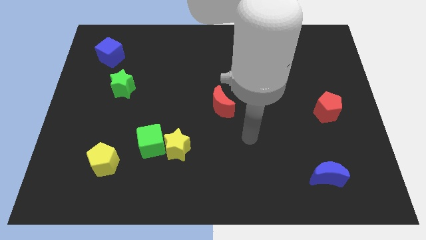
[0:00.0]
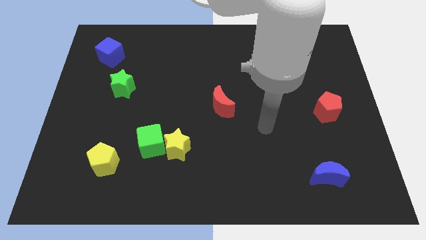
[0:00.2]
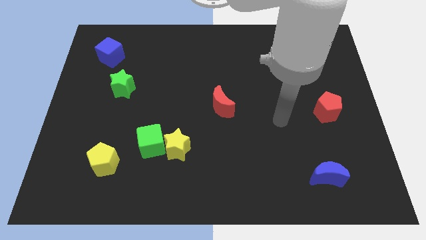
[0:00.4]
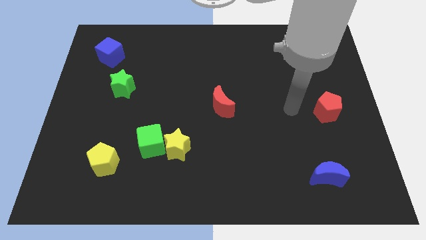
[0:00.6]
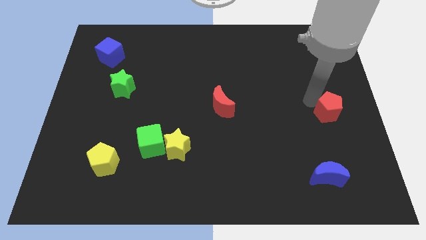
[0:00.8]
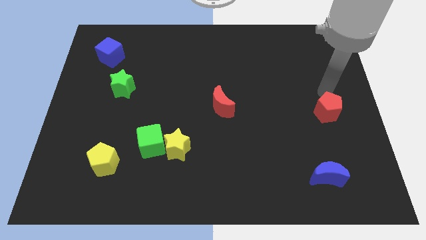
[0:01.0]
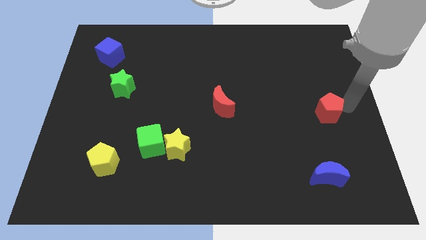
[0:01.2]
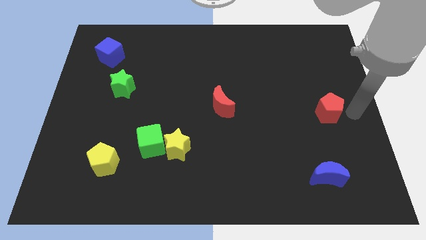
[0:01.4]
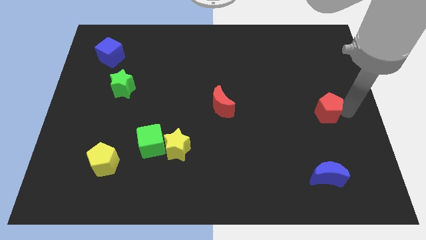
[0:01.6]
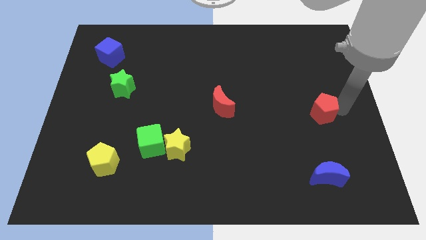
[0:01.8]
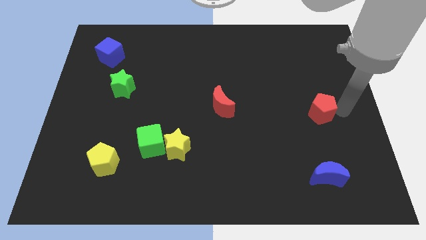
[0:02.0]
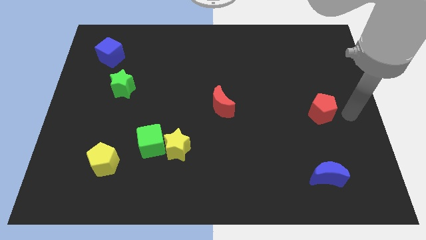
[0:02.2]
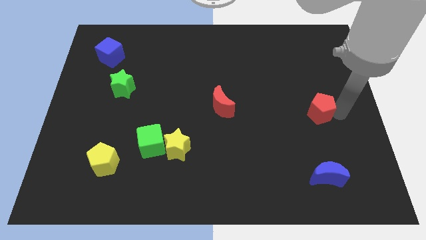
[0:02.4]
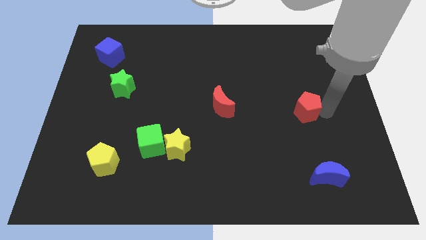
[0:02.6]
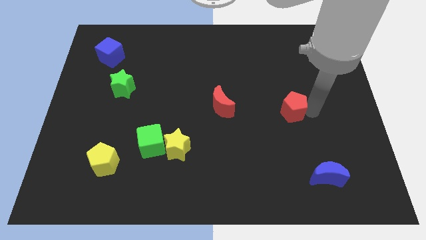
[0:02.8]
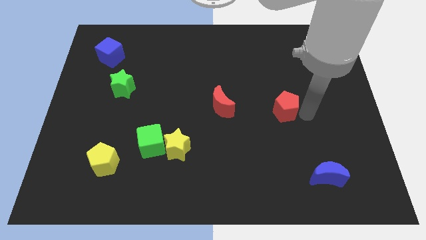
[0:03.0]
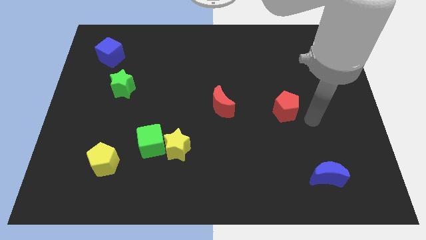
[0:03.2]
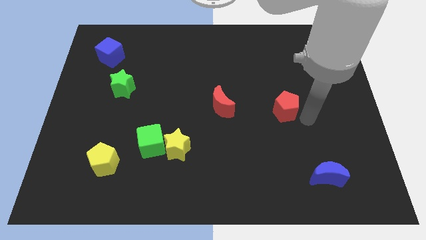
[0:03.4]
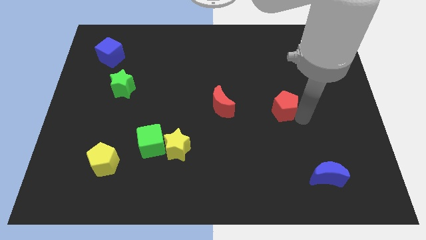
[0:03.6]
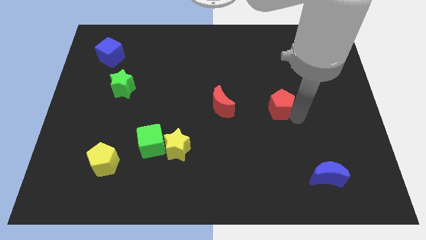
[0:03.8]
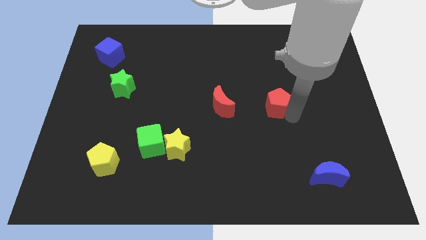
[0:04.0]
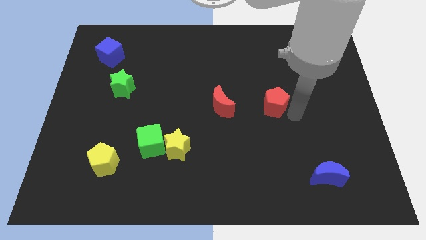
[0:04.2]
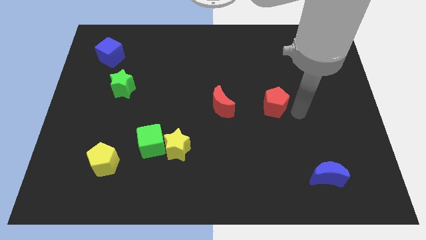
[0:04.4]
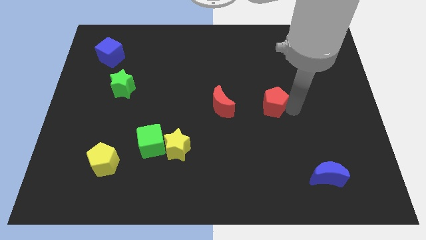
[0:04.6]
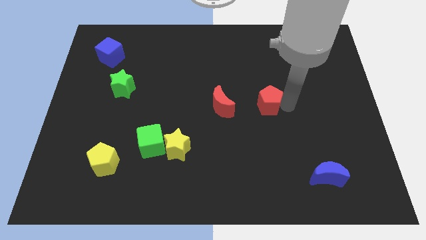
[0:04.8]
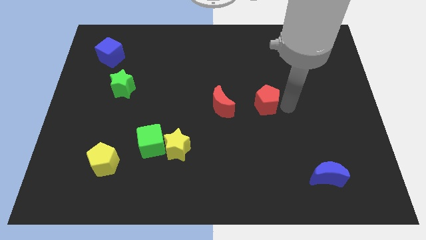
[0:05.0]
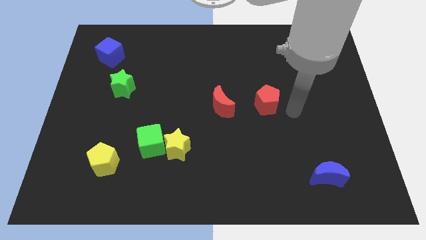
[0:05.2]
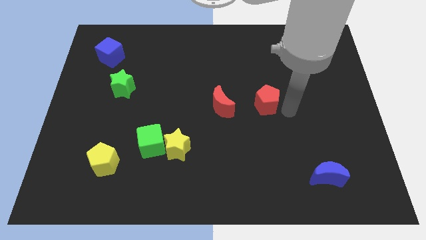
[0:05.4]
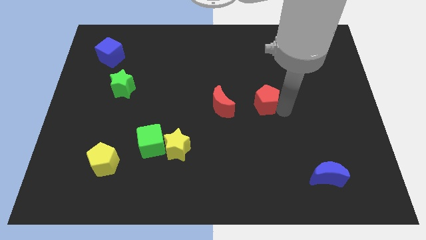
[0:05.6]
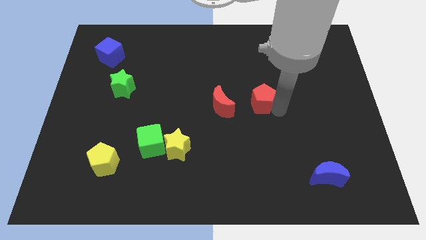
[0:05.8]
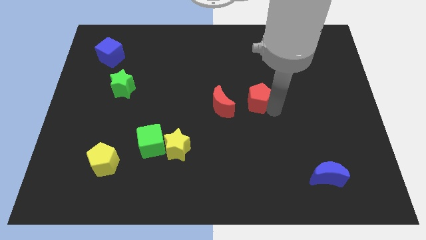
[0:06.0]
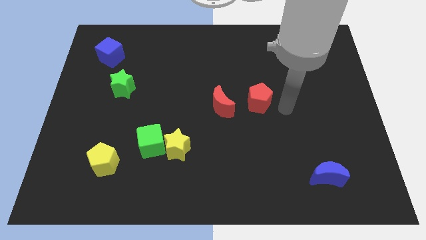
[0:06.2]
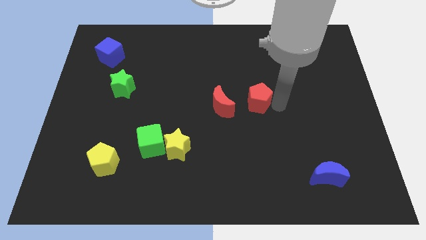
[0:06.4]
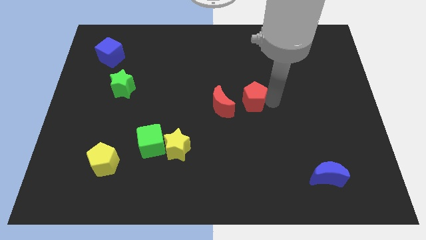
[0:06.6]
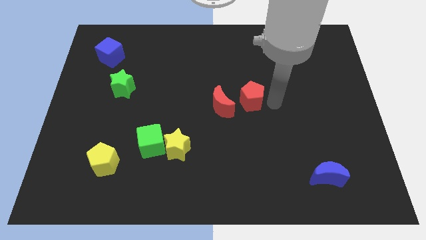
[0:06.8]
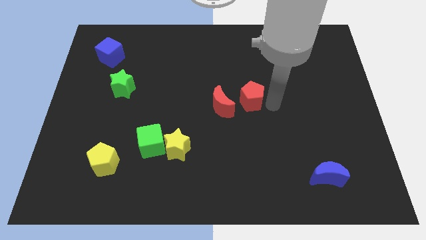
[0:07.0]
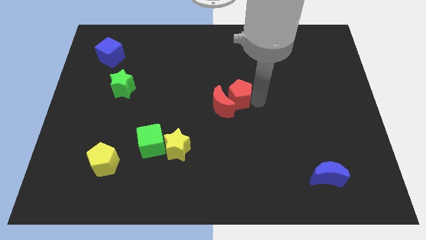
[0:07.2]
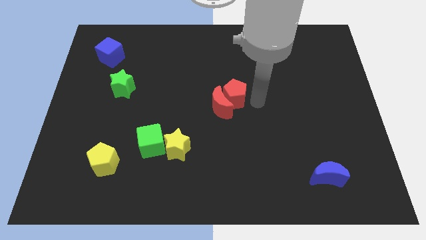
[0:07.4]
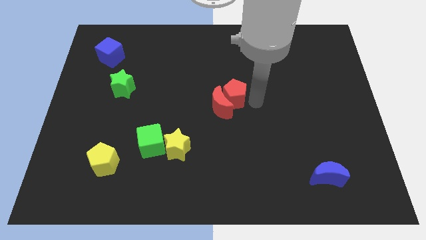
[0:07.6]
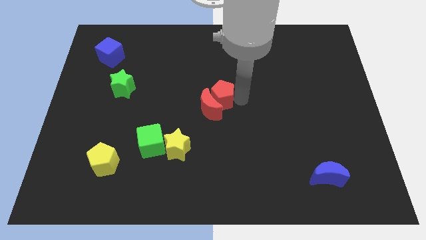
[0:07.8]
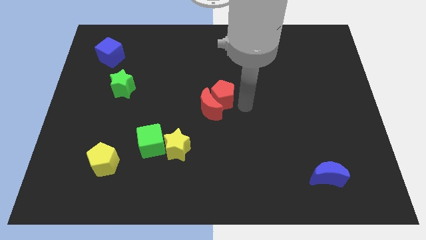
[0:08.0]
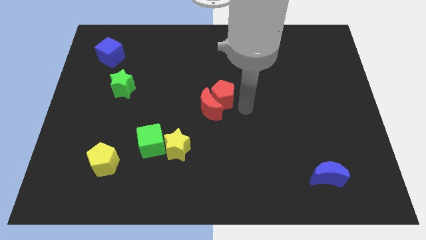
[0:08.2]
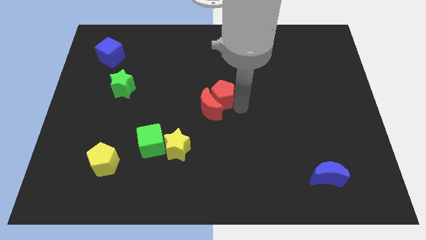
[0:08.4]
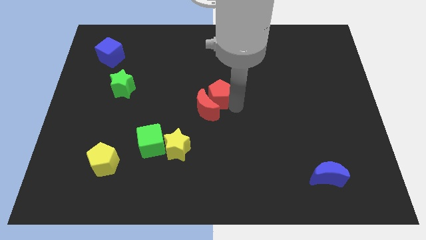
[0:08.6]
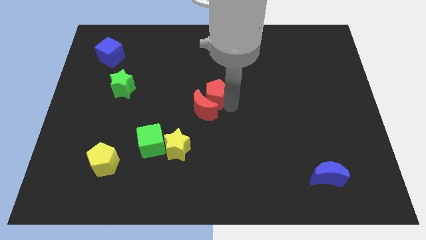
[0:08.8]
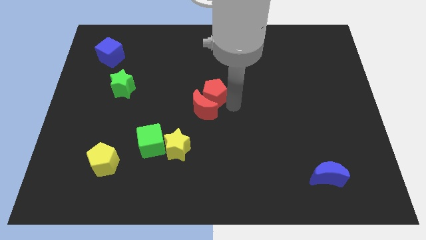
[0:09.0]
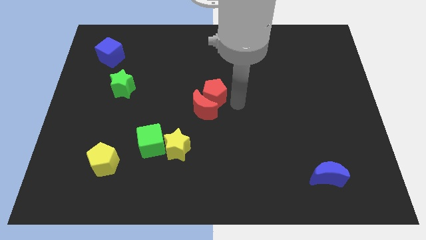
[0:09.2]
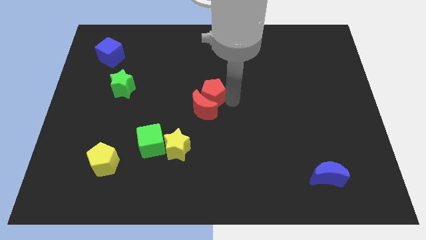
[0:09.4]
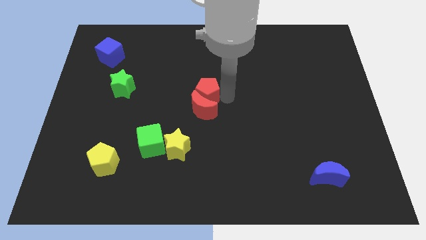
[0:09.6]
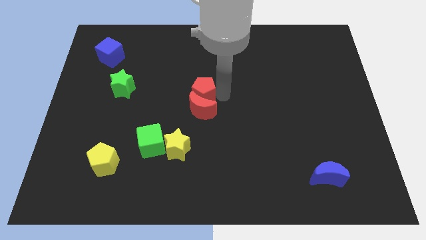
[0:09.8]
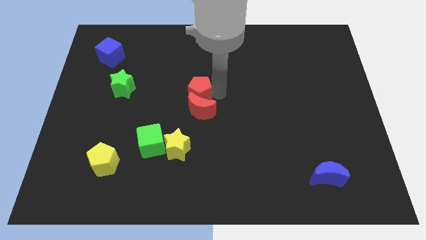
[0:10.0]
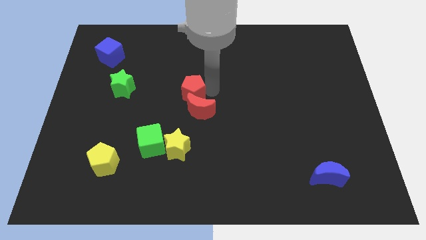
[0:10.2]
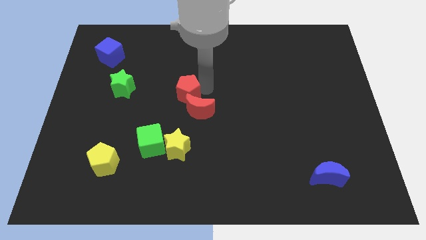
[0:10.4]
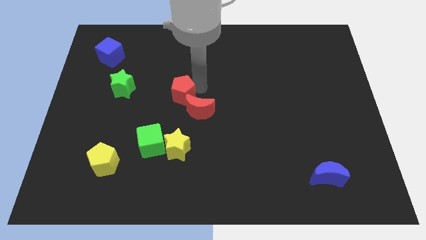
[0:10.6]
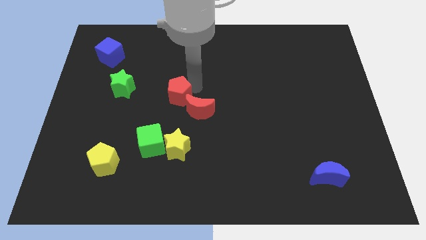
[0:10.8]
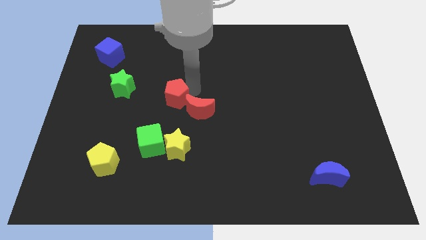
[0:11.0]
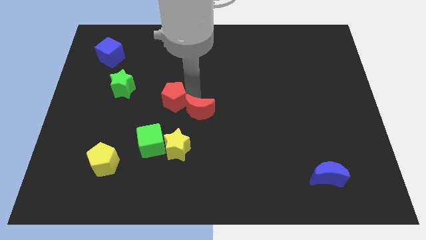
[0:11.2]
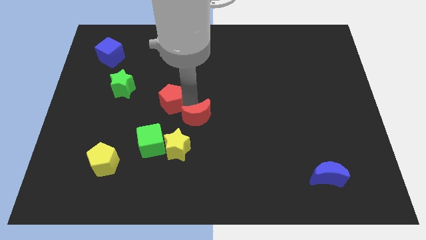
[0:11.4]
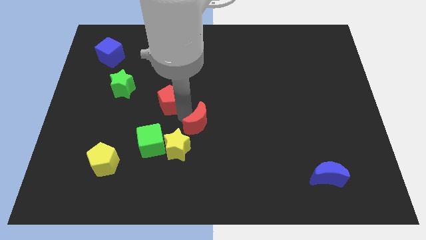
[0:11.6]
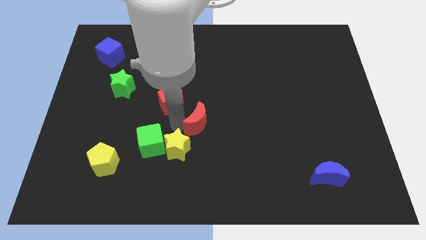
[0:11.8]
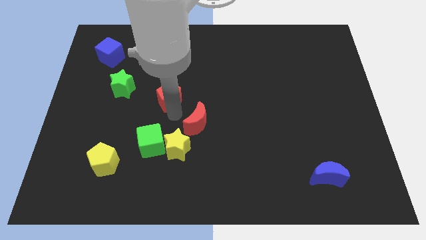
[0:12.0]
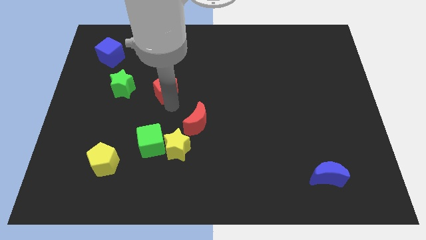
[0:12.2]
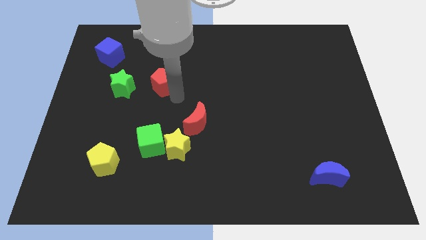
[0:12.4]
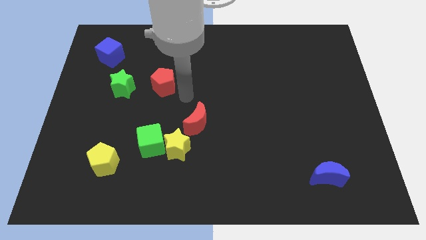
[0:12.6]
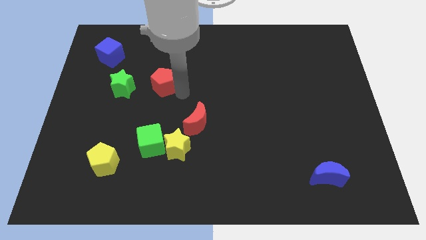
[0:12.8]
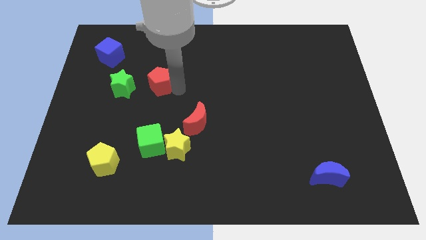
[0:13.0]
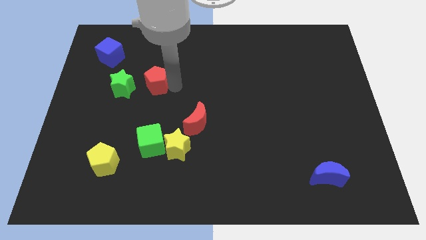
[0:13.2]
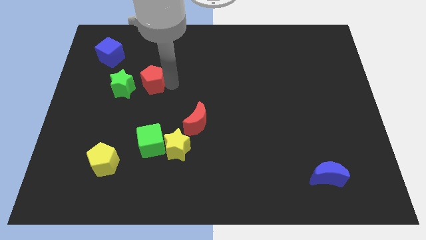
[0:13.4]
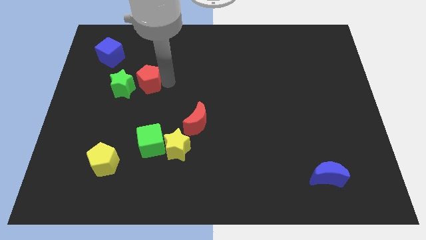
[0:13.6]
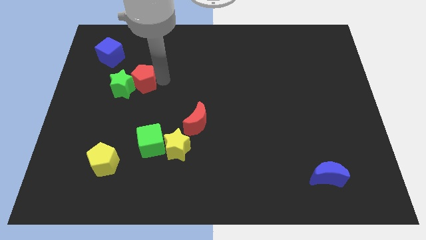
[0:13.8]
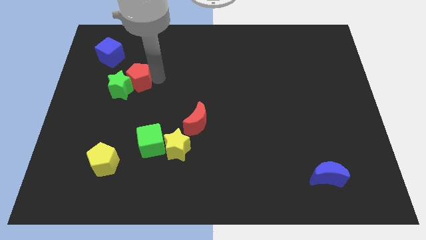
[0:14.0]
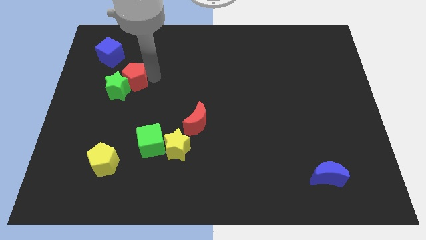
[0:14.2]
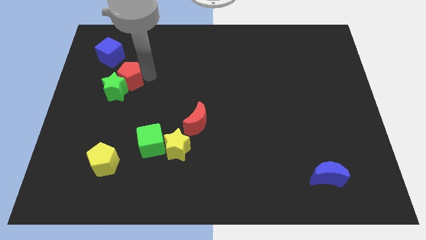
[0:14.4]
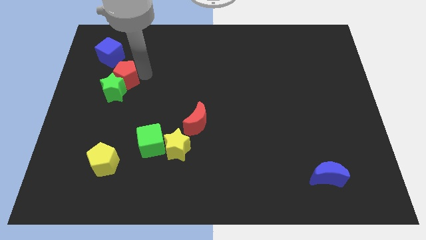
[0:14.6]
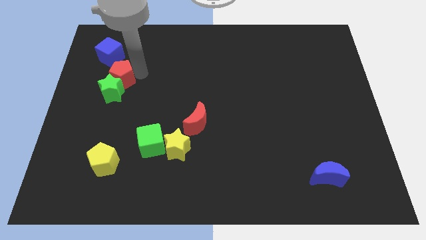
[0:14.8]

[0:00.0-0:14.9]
move the red pentagon below the blue cube
